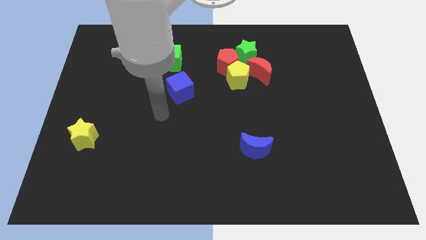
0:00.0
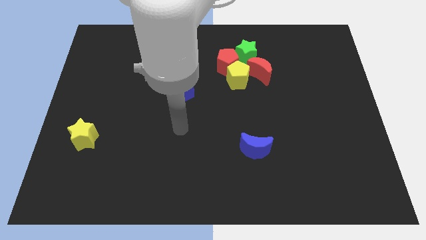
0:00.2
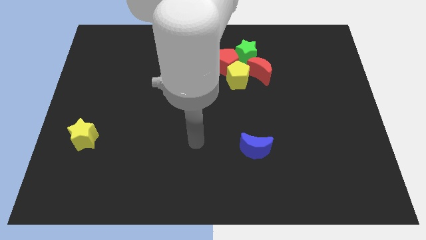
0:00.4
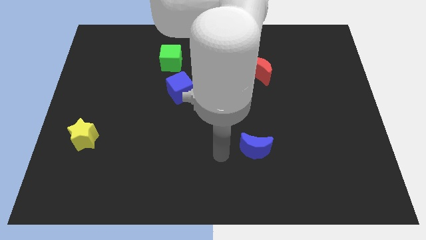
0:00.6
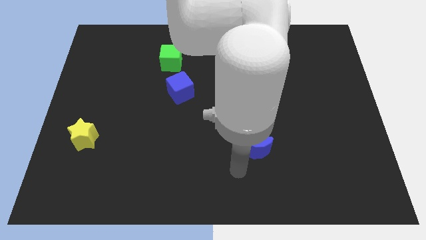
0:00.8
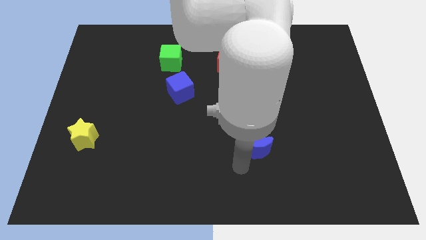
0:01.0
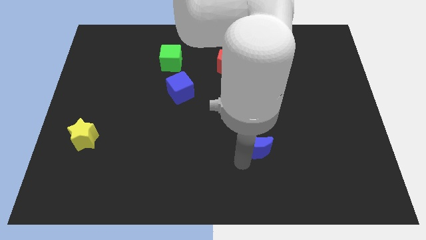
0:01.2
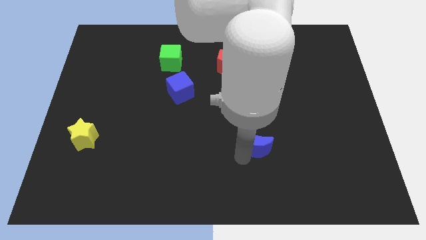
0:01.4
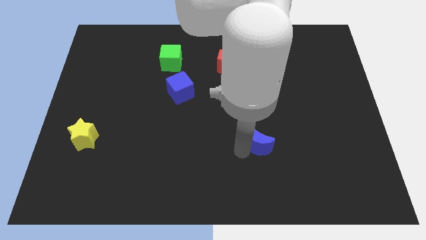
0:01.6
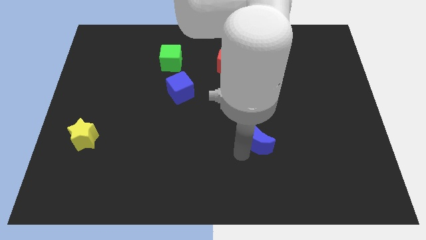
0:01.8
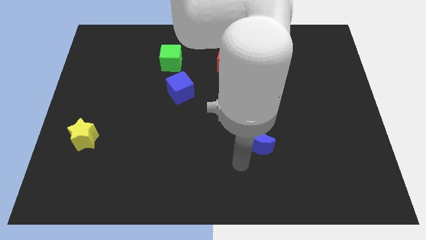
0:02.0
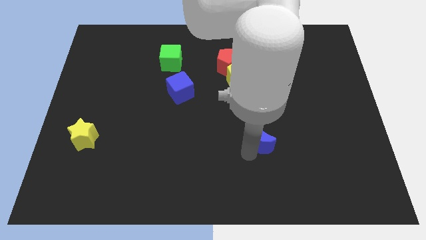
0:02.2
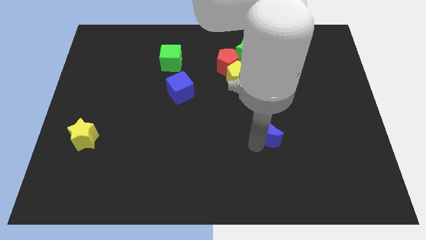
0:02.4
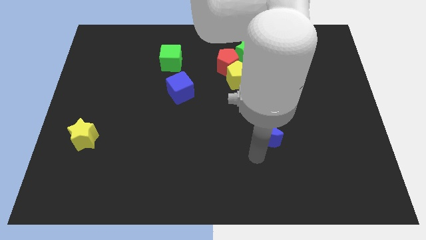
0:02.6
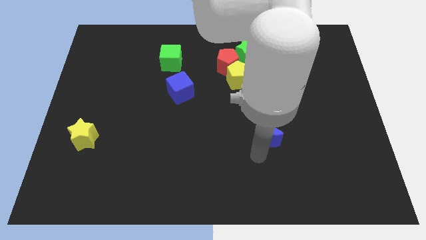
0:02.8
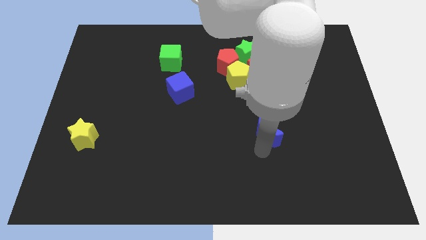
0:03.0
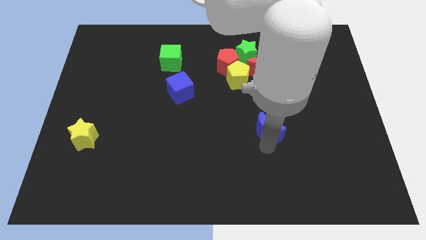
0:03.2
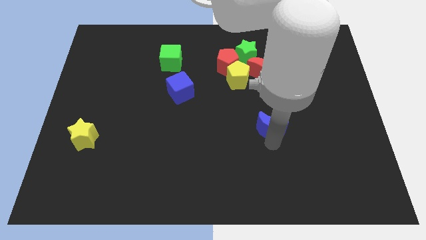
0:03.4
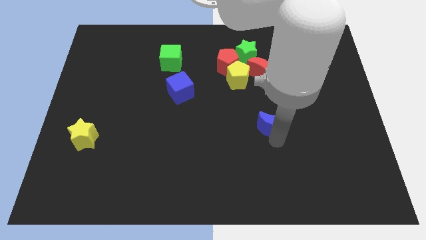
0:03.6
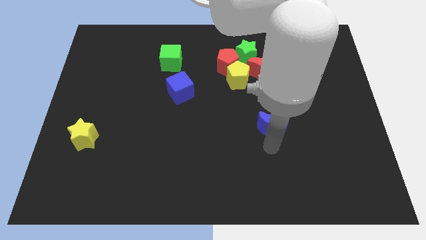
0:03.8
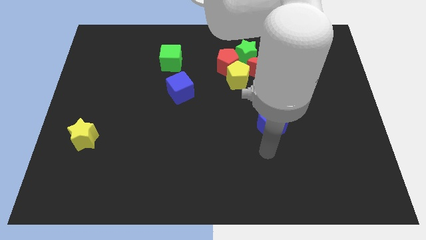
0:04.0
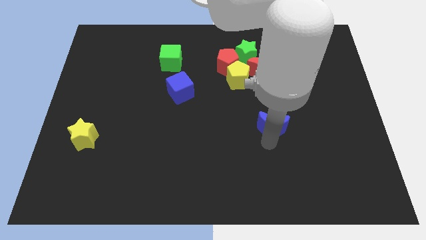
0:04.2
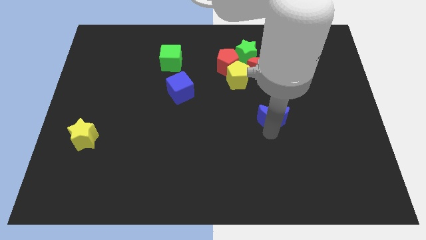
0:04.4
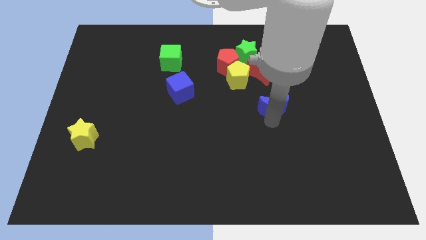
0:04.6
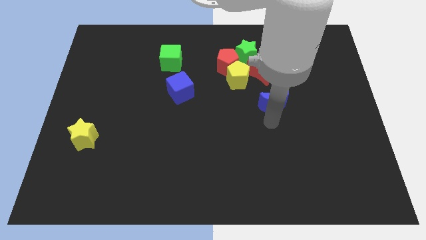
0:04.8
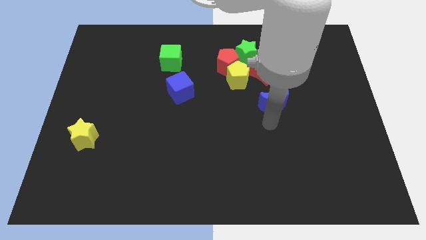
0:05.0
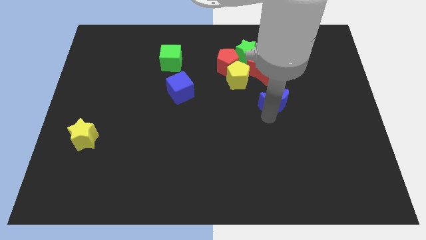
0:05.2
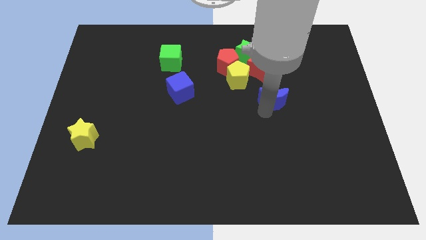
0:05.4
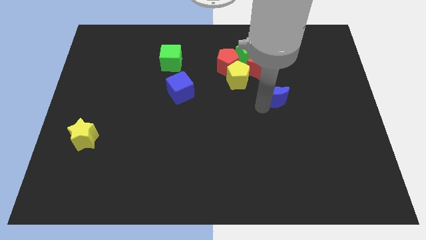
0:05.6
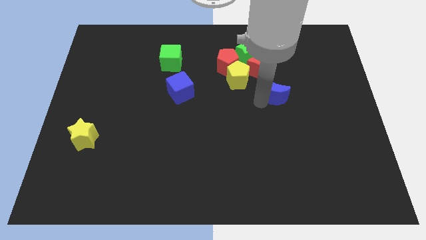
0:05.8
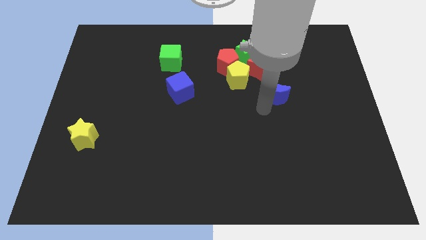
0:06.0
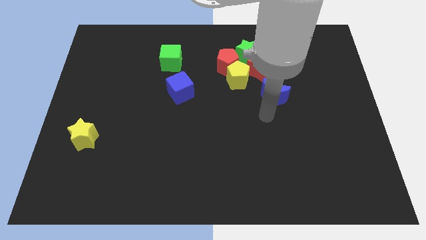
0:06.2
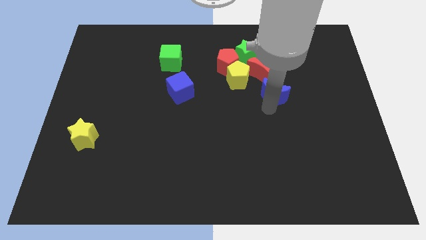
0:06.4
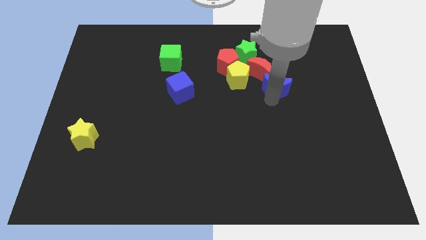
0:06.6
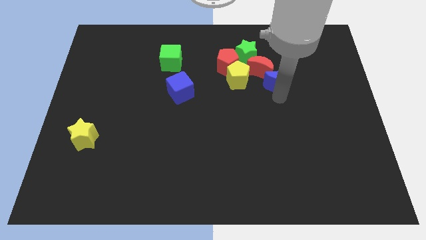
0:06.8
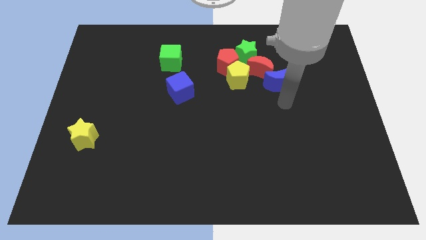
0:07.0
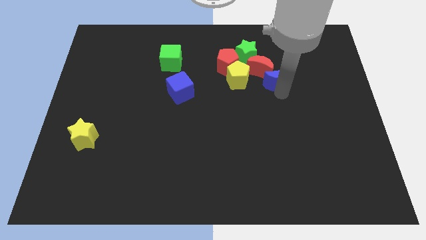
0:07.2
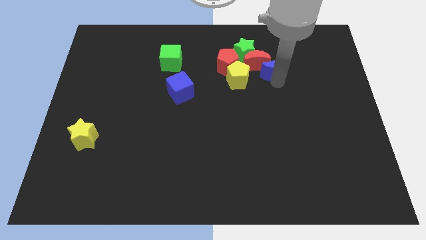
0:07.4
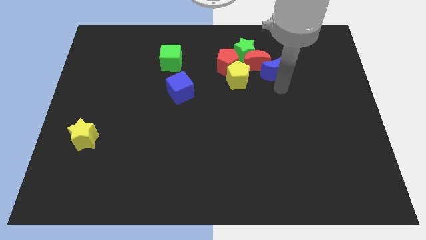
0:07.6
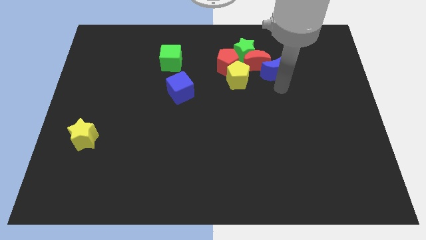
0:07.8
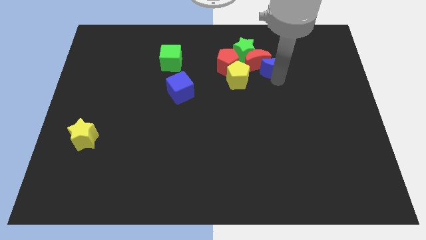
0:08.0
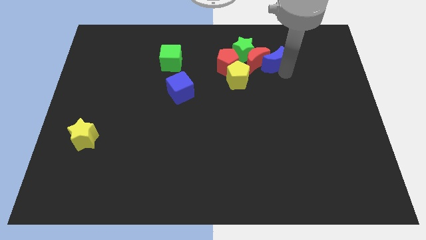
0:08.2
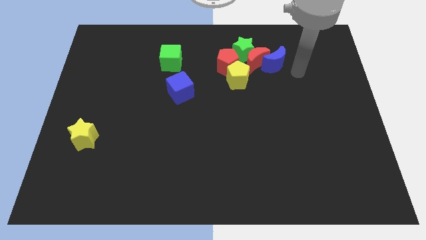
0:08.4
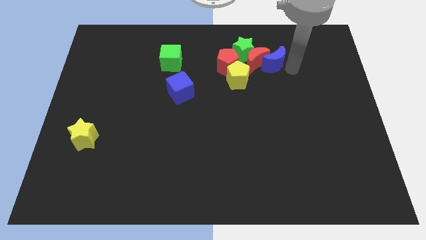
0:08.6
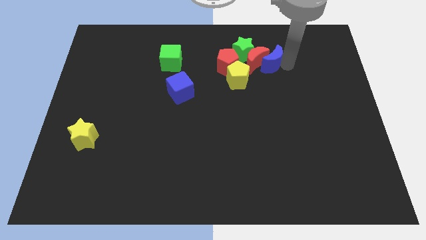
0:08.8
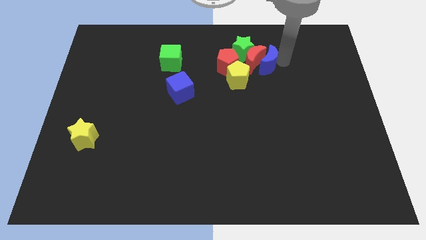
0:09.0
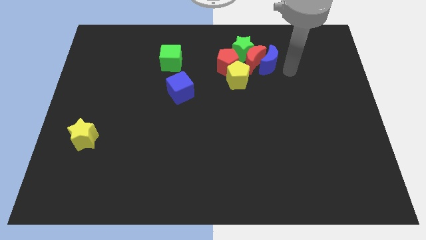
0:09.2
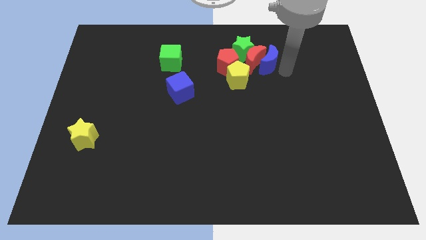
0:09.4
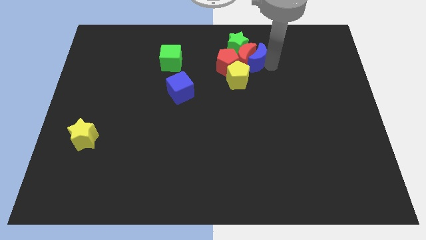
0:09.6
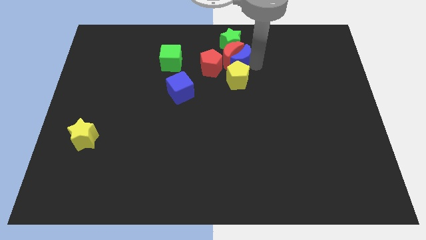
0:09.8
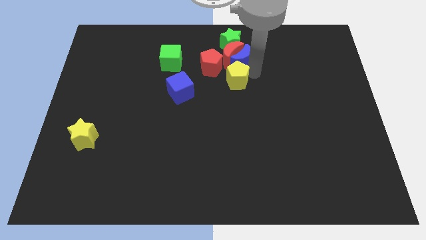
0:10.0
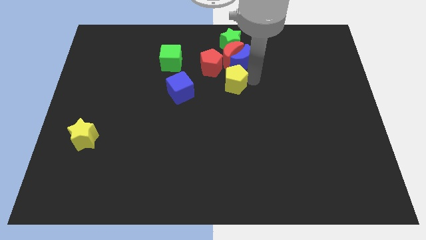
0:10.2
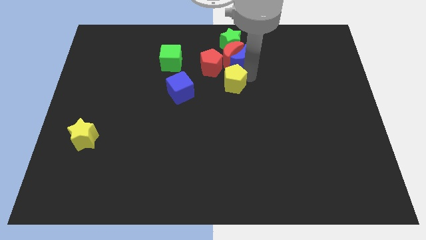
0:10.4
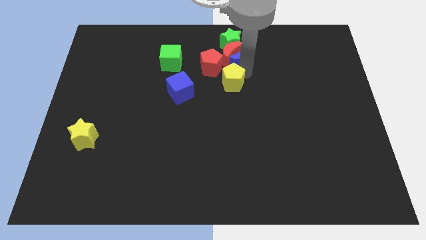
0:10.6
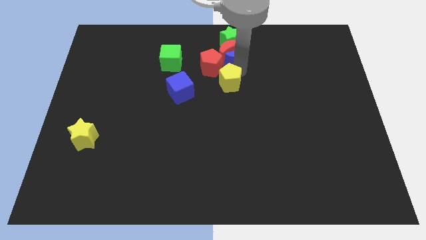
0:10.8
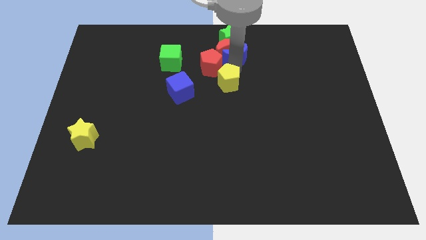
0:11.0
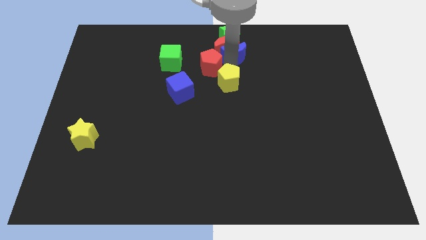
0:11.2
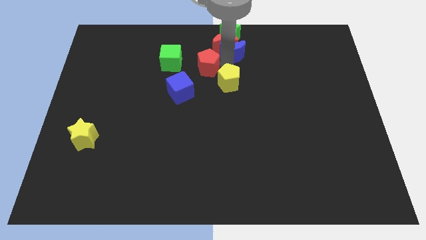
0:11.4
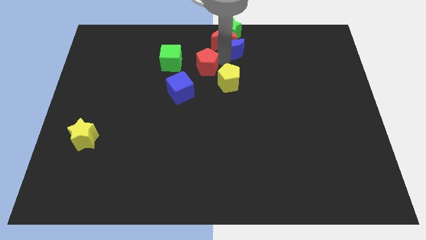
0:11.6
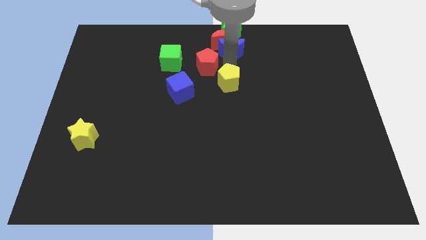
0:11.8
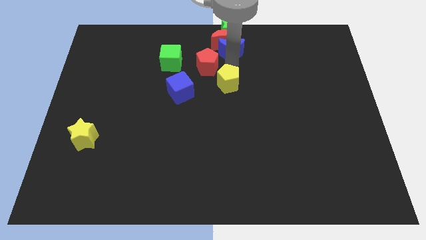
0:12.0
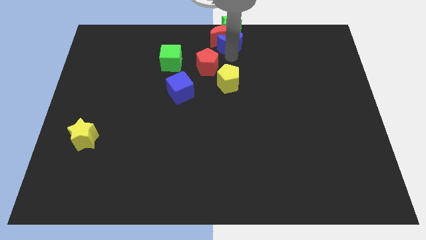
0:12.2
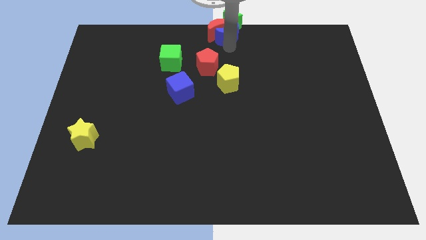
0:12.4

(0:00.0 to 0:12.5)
push the blue moon next to the green star

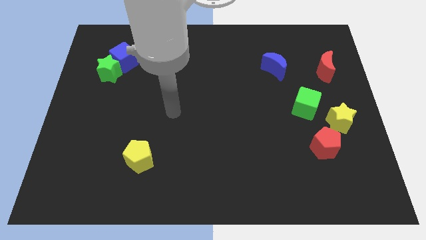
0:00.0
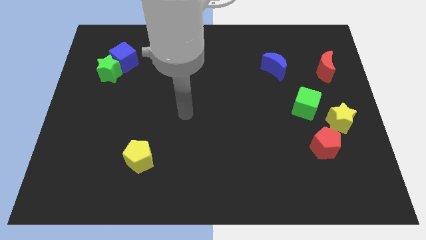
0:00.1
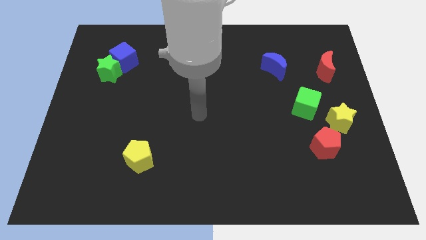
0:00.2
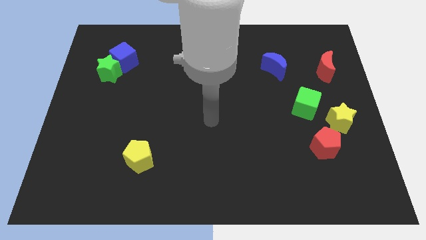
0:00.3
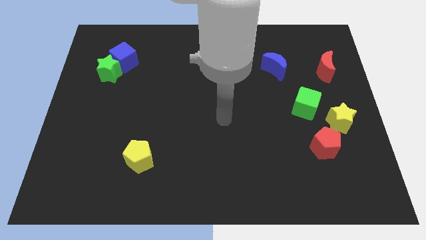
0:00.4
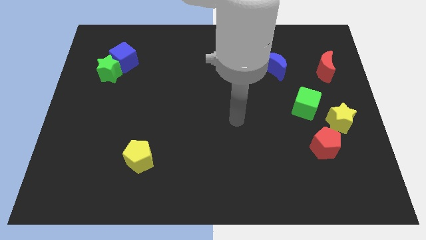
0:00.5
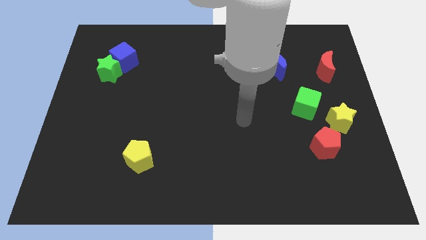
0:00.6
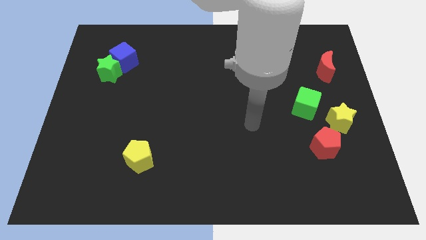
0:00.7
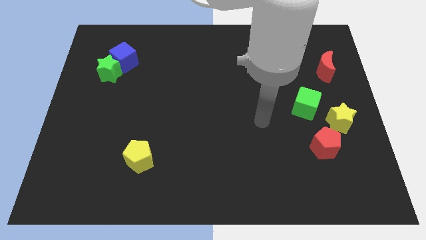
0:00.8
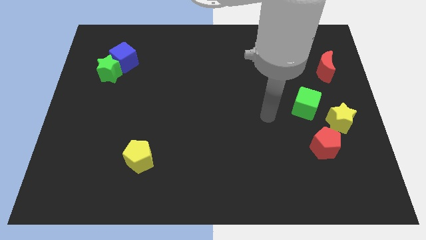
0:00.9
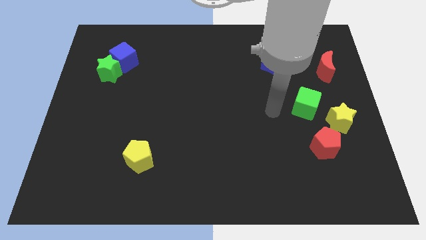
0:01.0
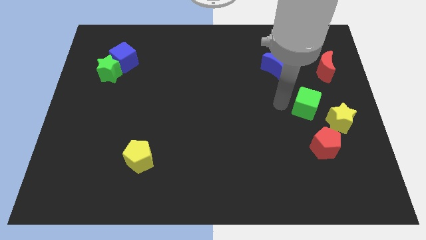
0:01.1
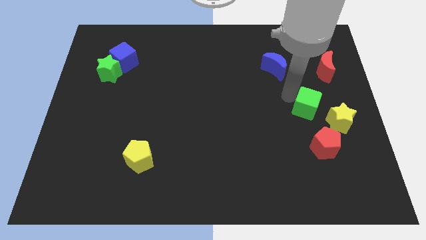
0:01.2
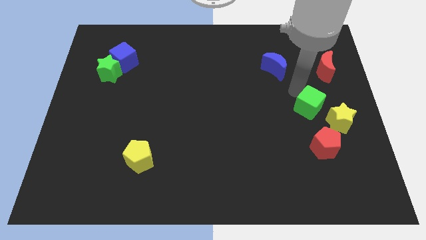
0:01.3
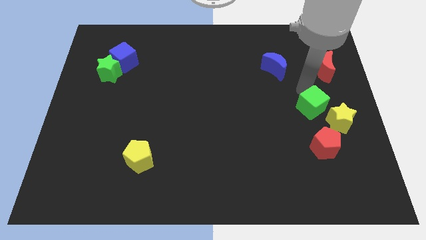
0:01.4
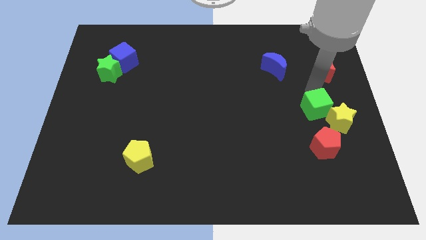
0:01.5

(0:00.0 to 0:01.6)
put the yellow star to the green cube
